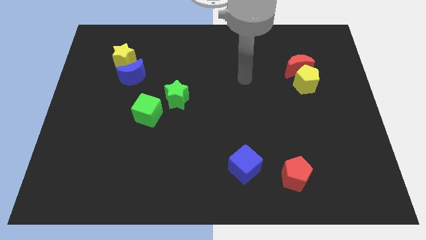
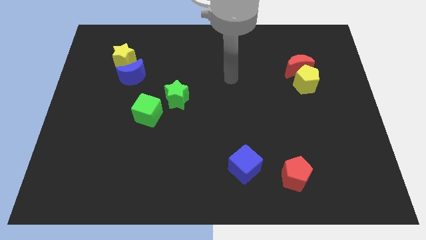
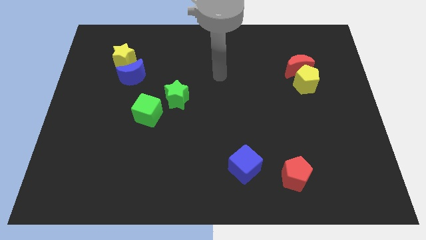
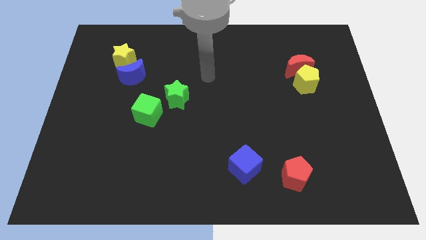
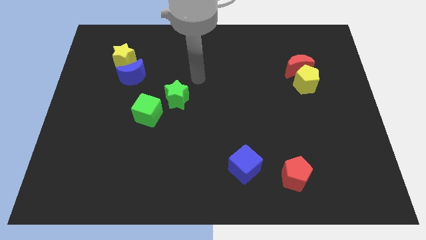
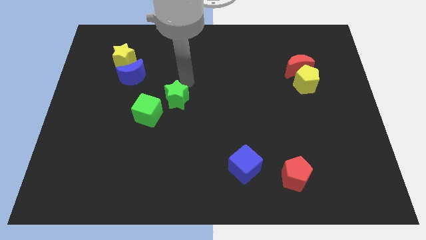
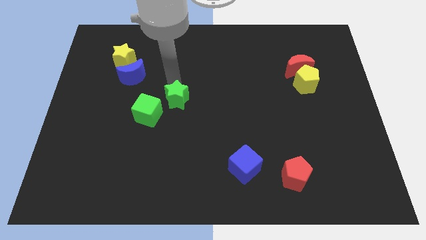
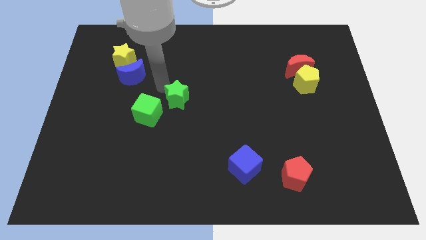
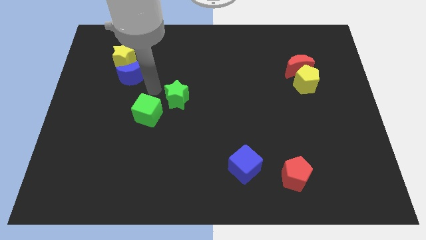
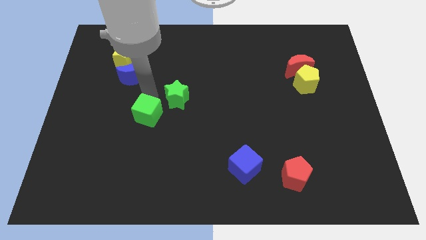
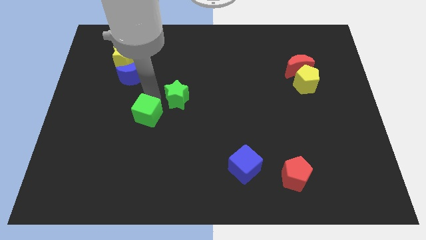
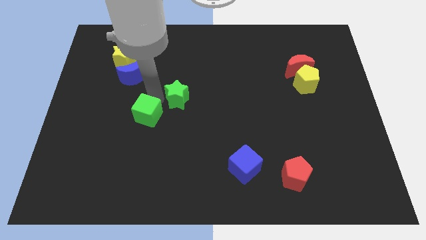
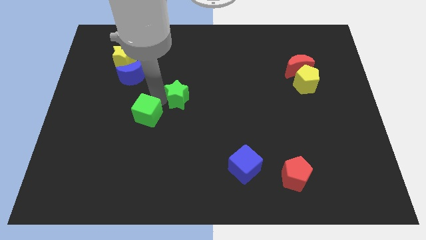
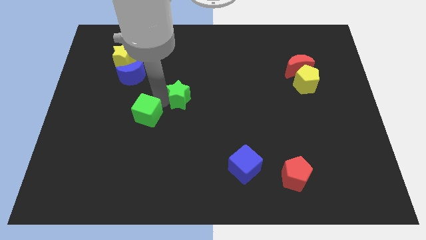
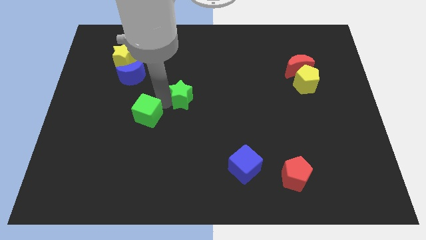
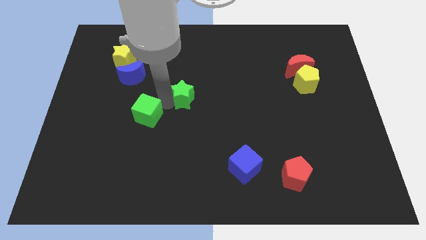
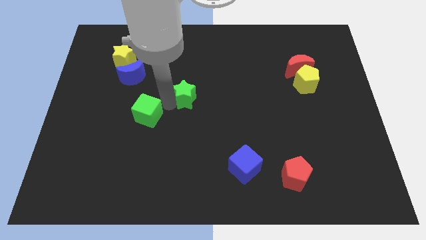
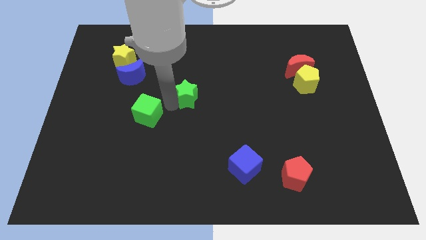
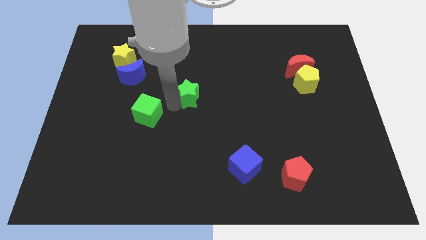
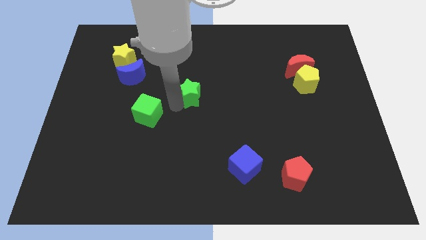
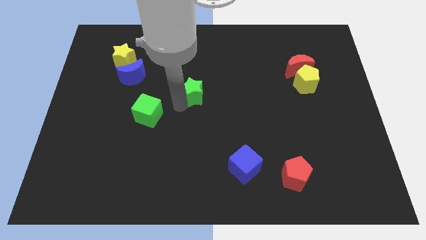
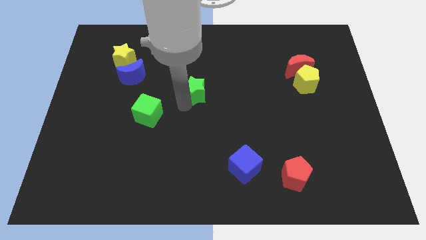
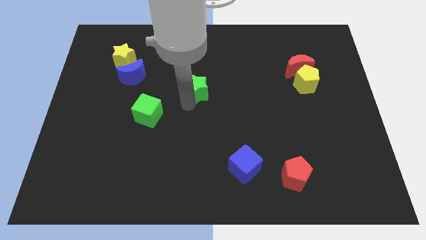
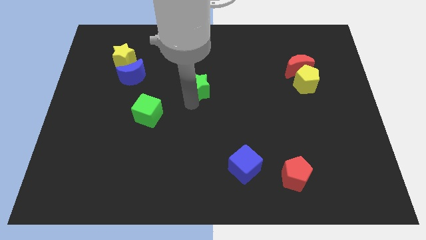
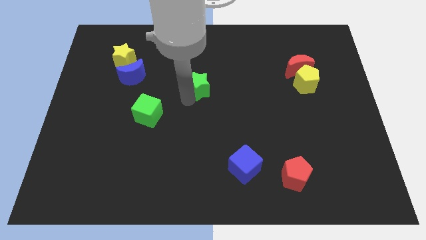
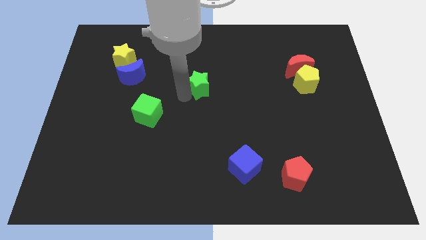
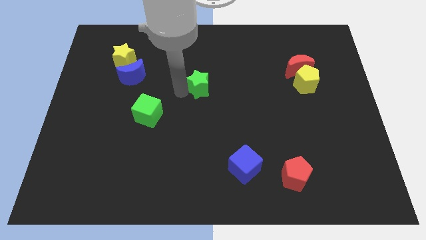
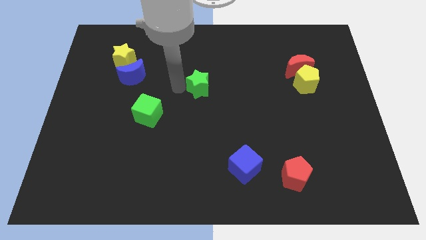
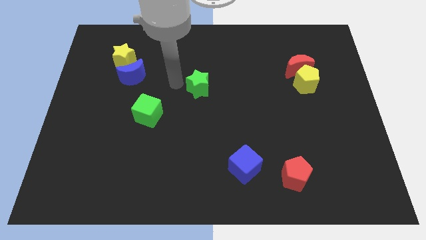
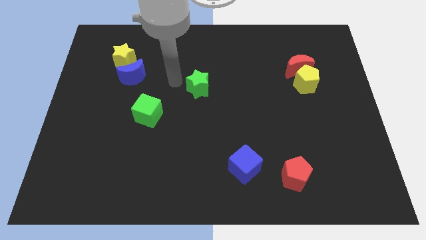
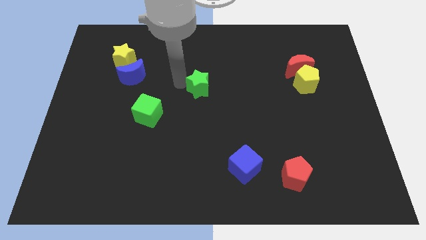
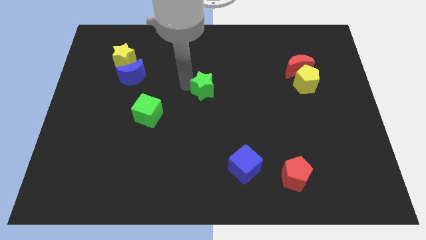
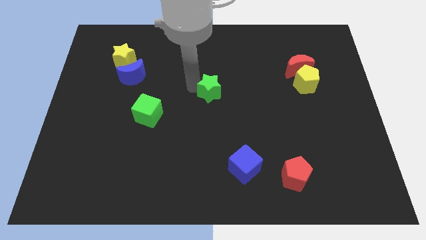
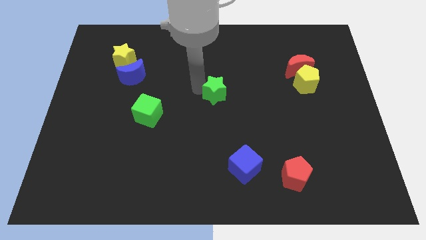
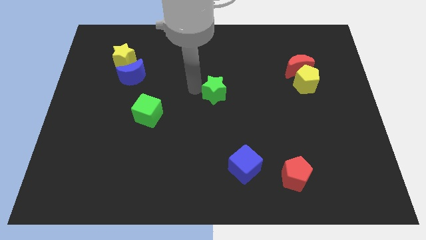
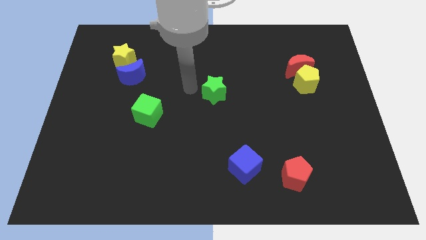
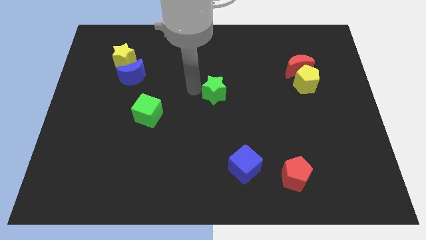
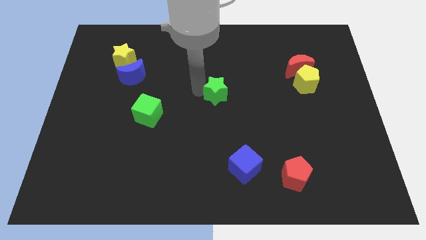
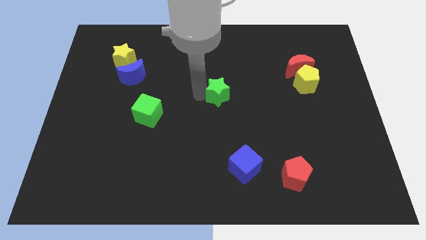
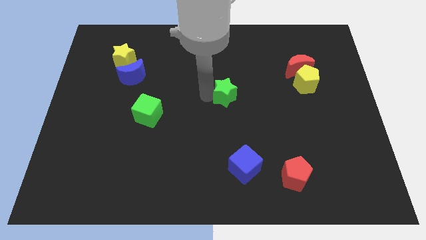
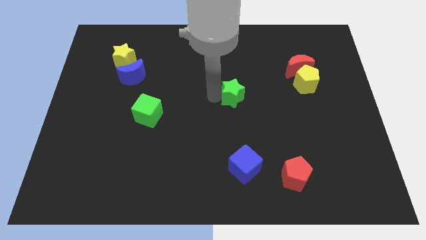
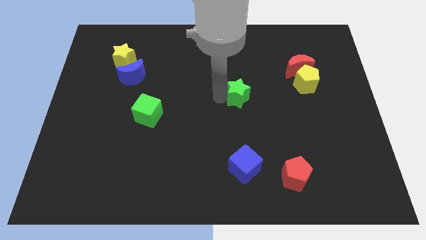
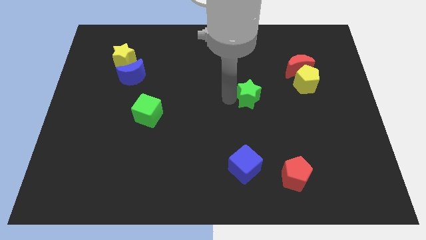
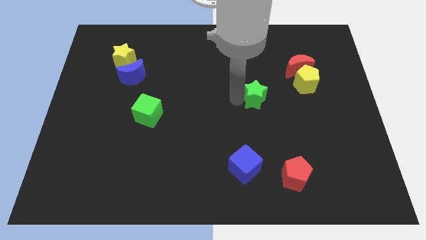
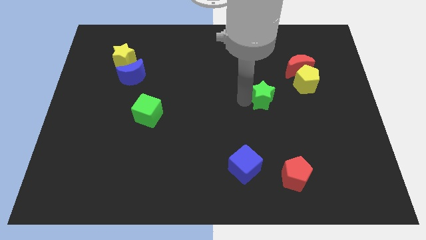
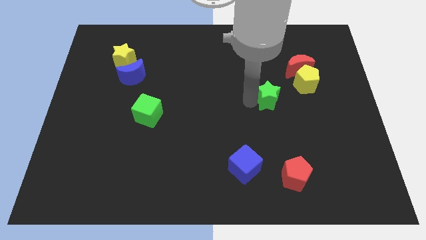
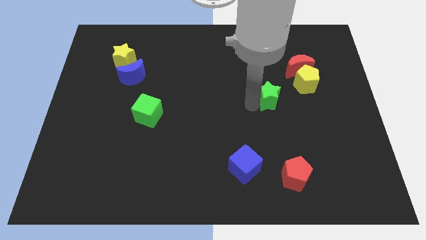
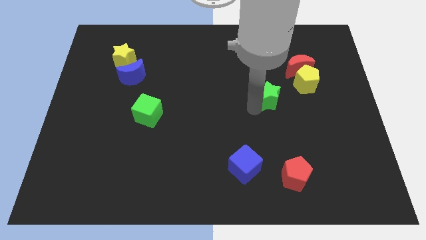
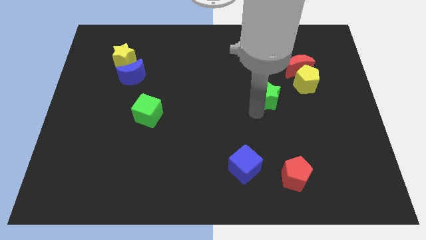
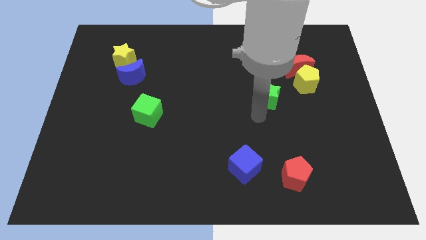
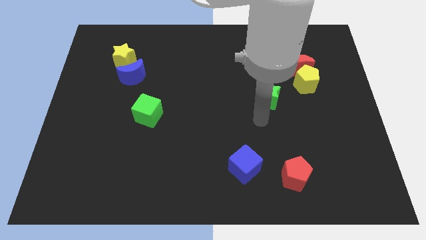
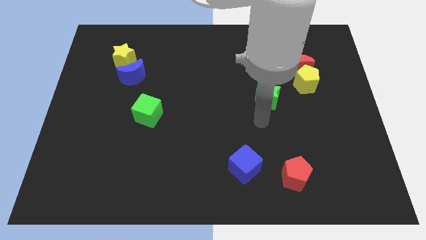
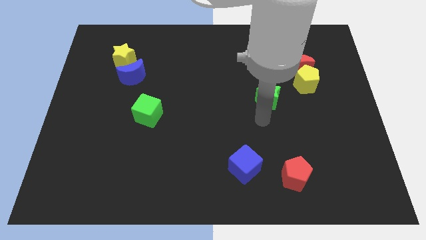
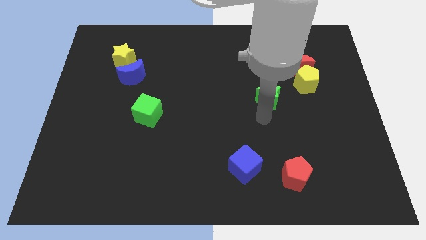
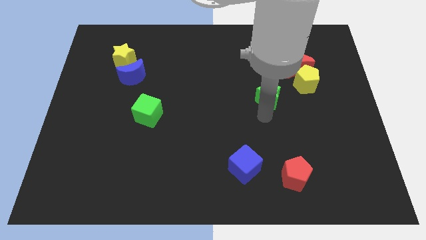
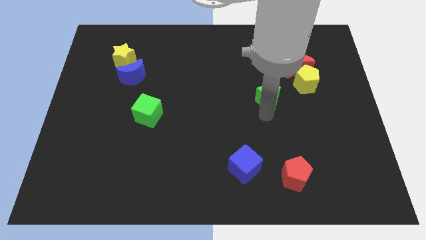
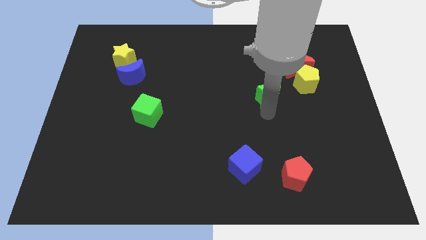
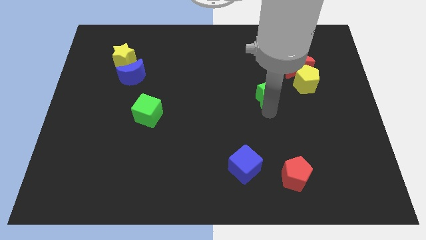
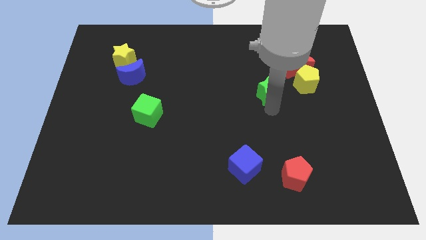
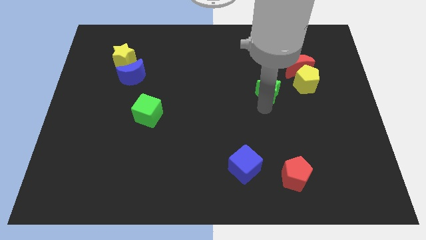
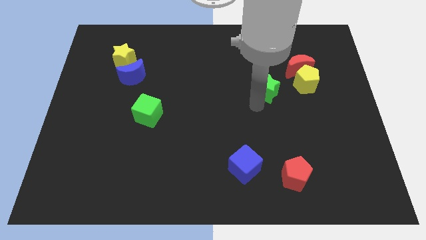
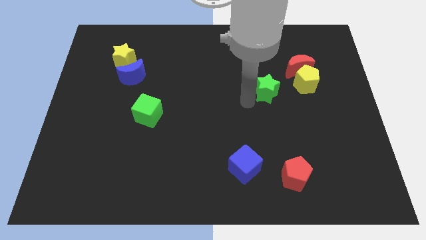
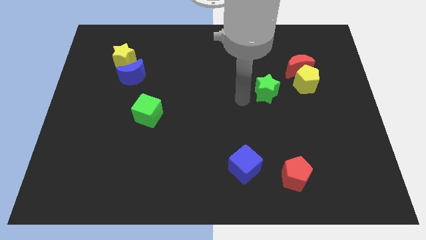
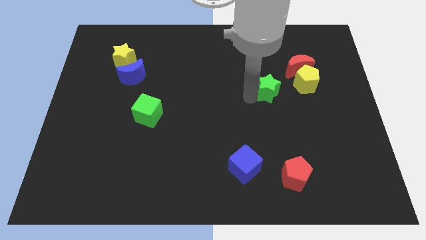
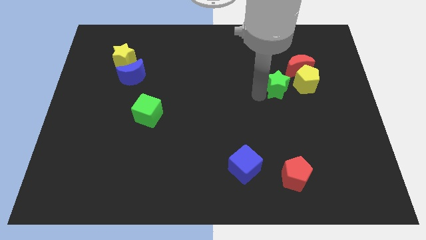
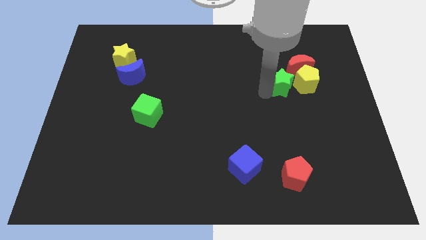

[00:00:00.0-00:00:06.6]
put the green star towards the yellow pentagon
